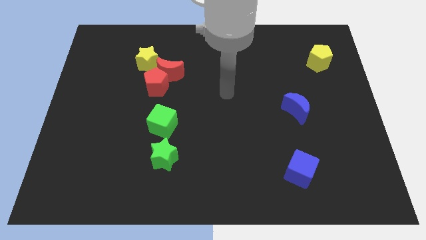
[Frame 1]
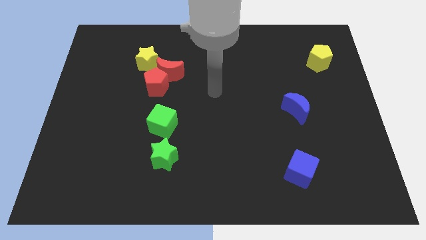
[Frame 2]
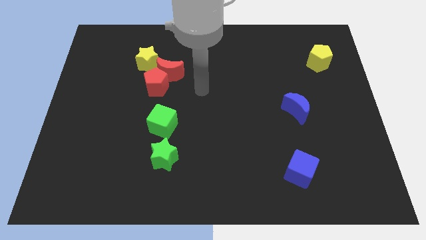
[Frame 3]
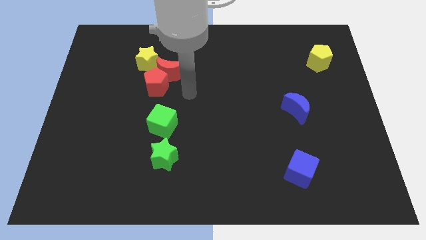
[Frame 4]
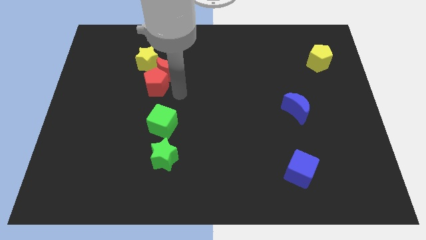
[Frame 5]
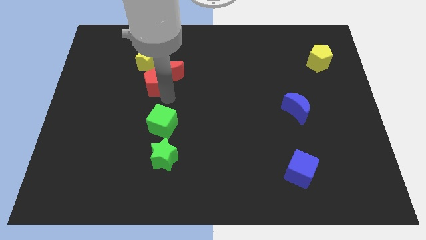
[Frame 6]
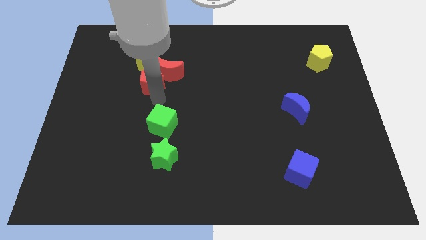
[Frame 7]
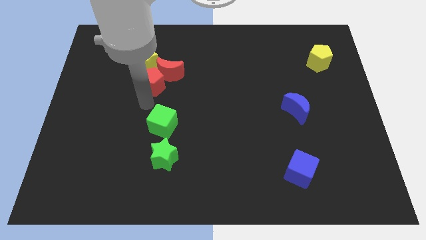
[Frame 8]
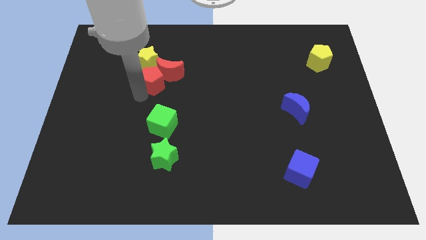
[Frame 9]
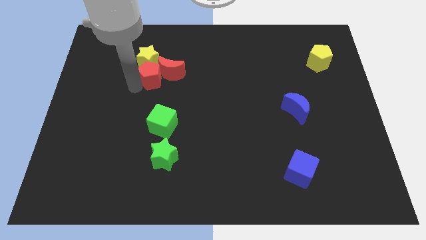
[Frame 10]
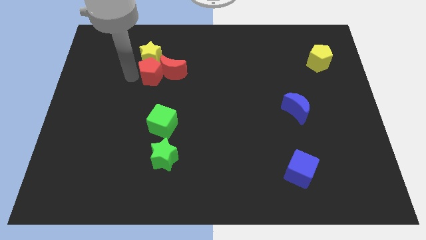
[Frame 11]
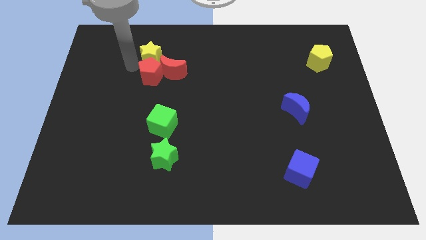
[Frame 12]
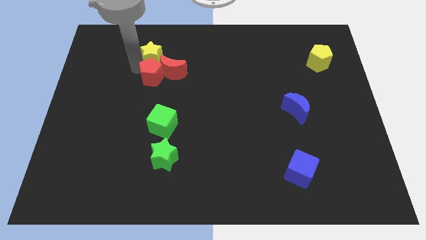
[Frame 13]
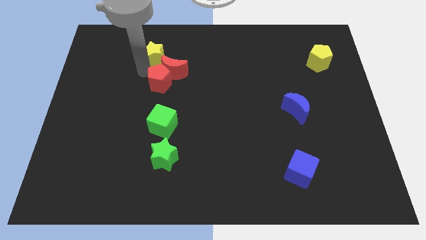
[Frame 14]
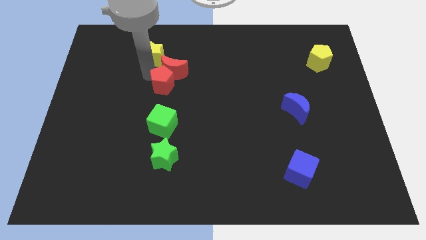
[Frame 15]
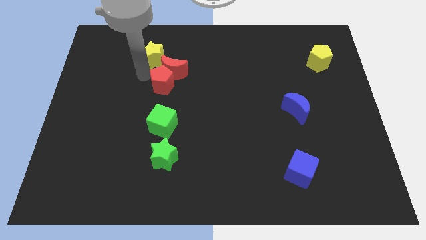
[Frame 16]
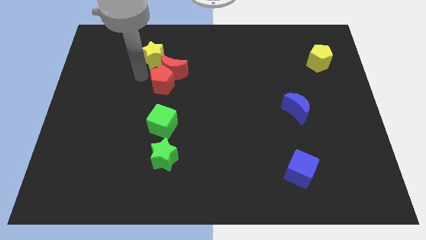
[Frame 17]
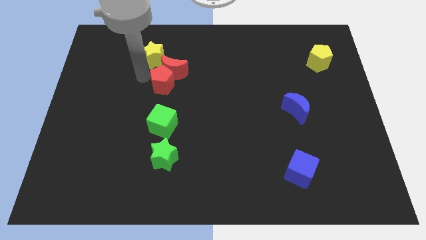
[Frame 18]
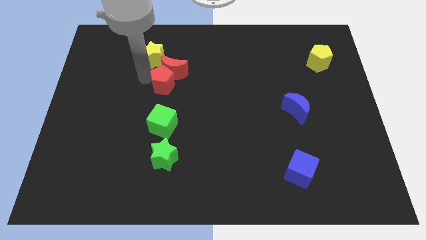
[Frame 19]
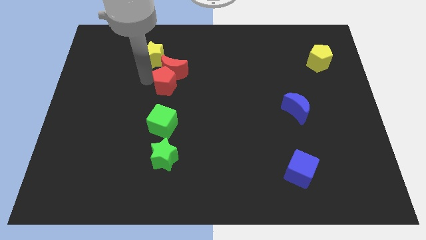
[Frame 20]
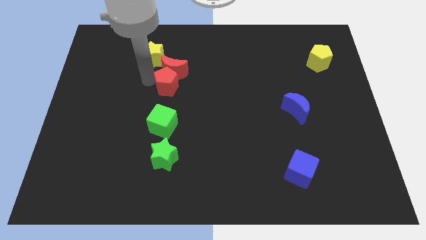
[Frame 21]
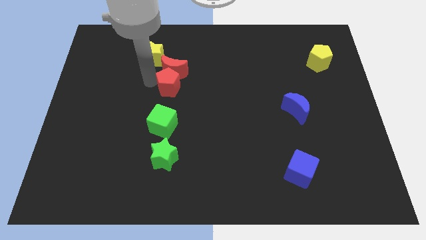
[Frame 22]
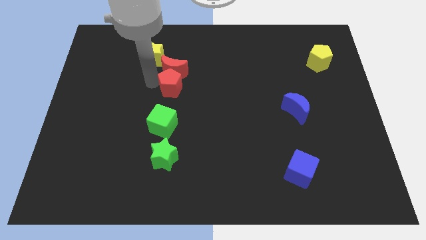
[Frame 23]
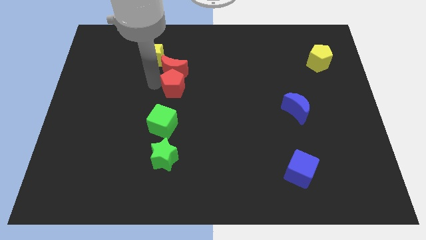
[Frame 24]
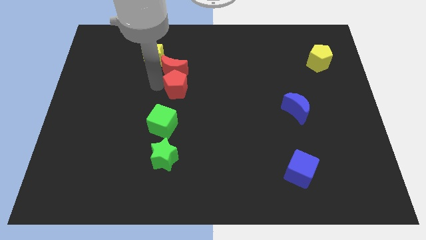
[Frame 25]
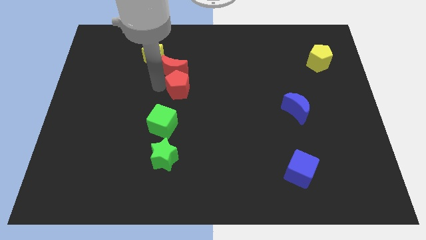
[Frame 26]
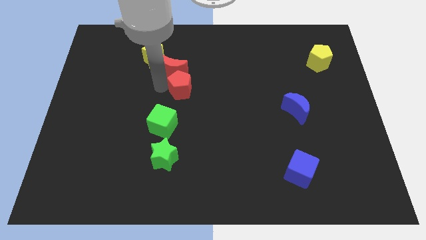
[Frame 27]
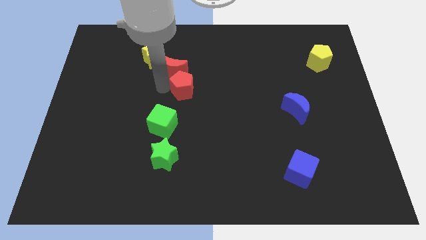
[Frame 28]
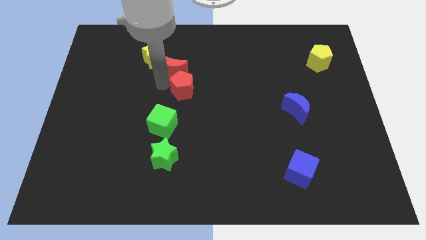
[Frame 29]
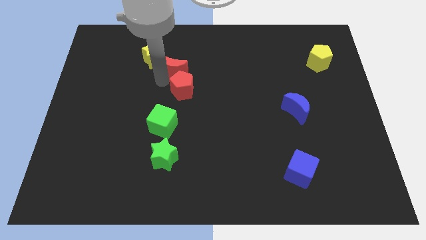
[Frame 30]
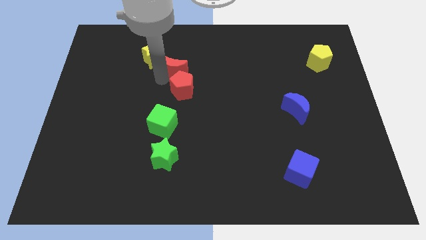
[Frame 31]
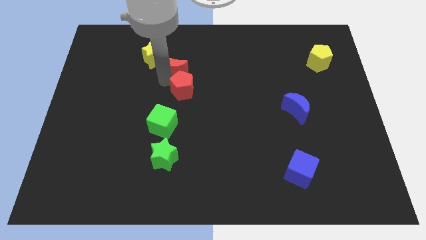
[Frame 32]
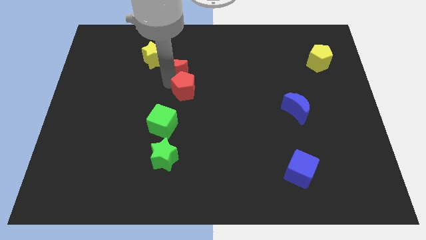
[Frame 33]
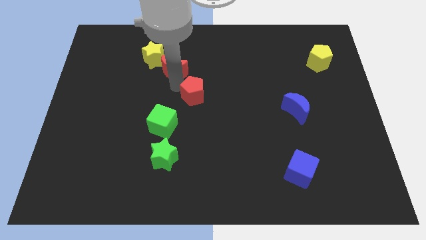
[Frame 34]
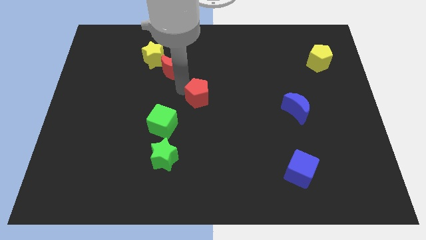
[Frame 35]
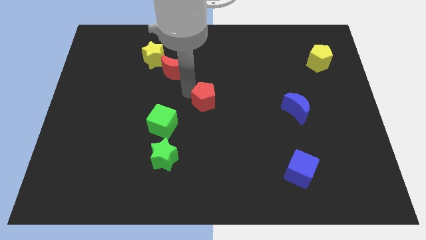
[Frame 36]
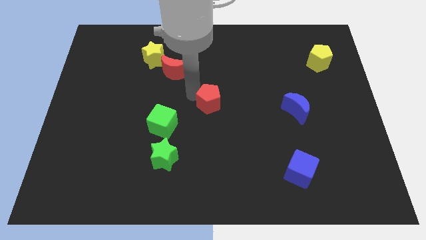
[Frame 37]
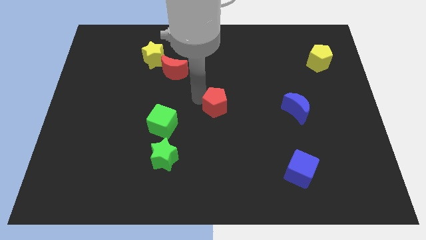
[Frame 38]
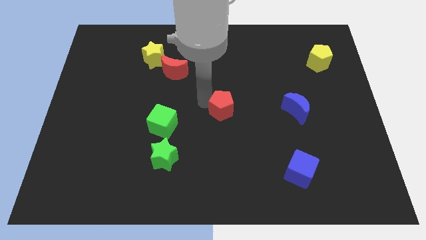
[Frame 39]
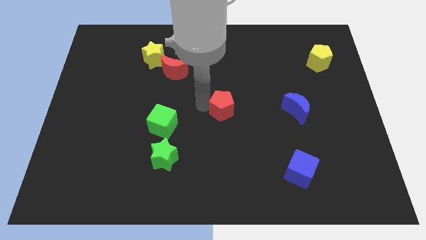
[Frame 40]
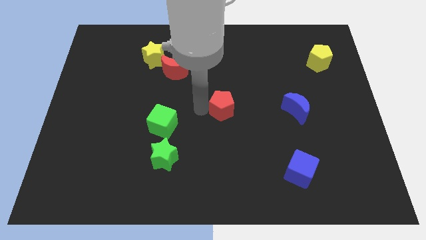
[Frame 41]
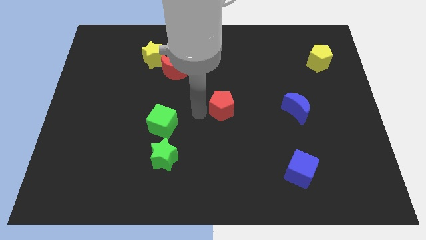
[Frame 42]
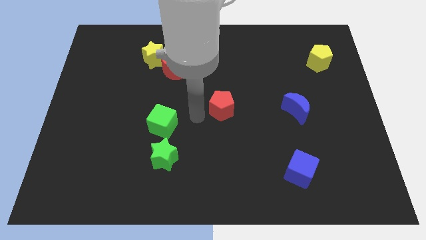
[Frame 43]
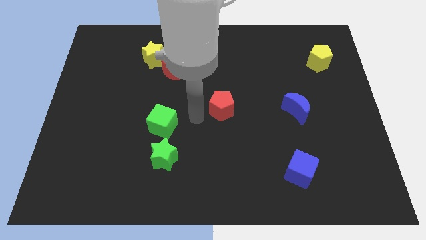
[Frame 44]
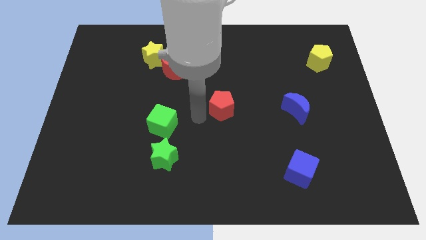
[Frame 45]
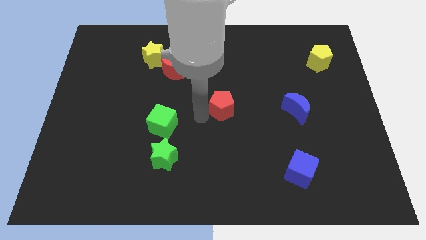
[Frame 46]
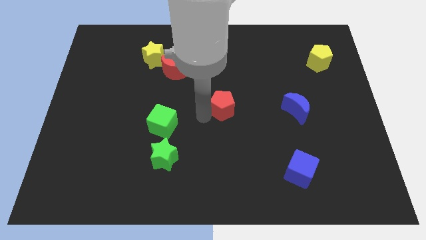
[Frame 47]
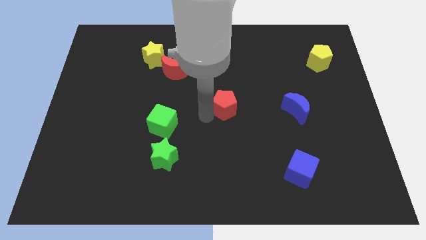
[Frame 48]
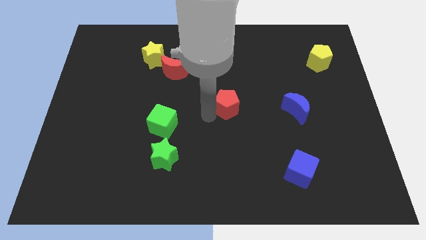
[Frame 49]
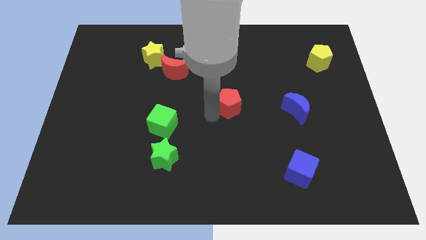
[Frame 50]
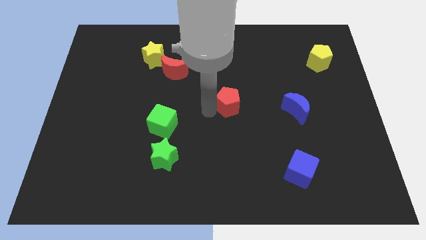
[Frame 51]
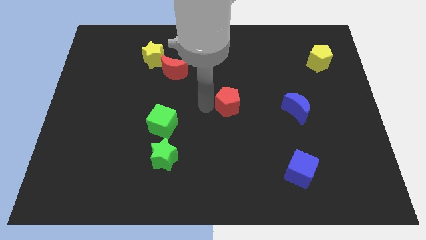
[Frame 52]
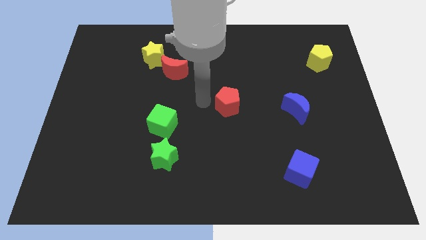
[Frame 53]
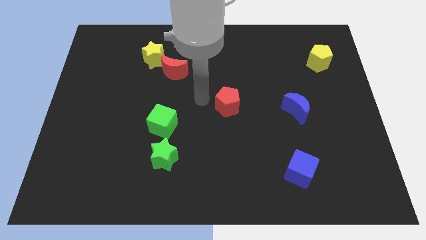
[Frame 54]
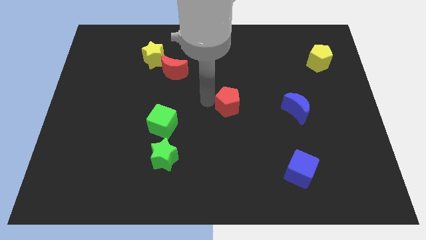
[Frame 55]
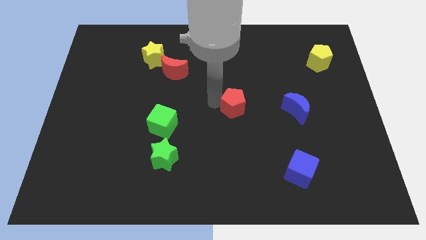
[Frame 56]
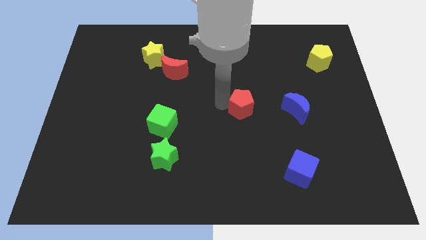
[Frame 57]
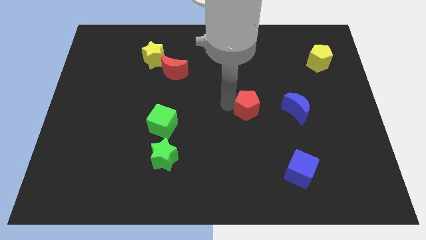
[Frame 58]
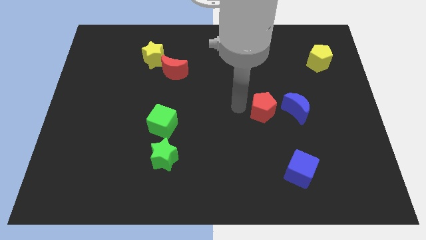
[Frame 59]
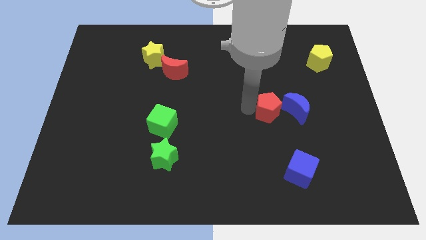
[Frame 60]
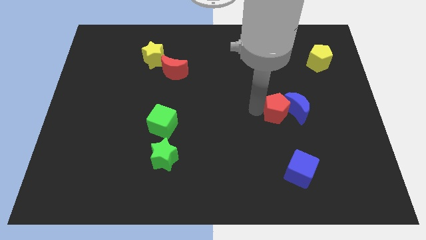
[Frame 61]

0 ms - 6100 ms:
put the red pentagon close to the blue moon
